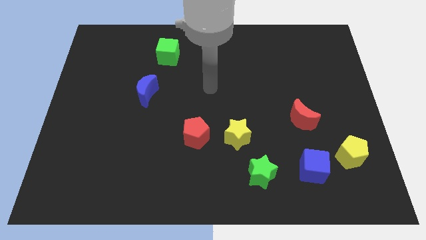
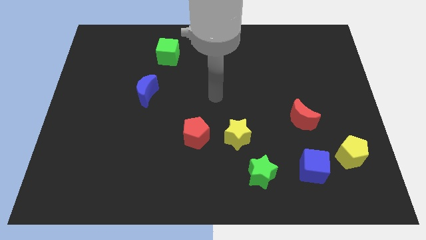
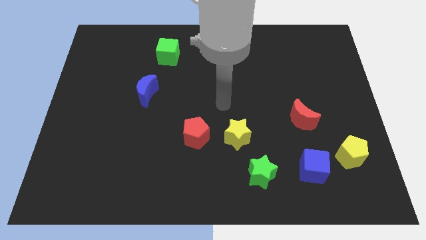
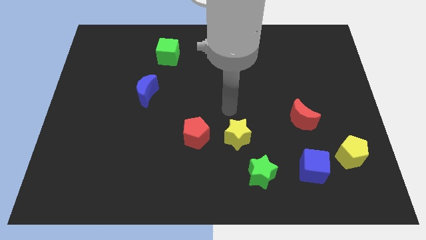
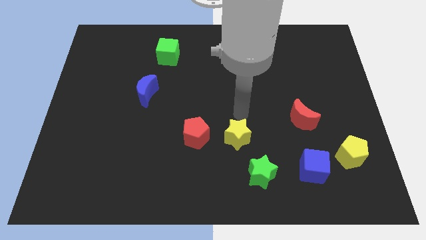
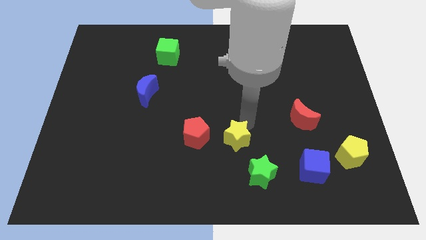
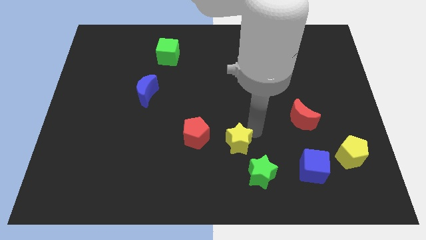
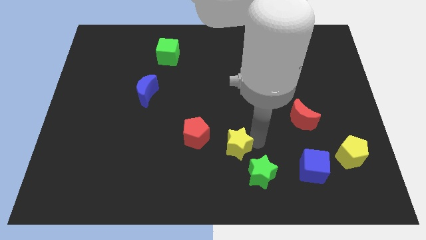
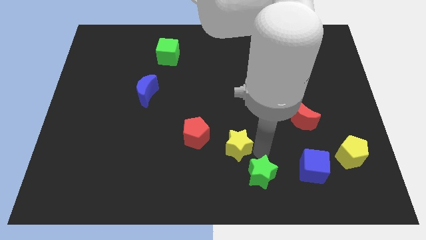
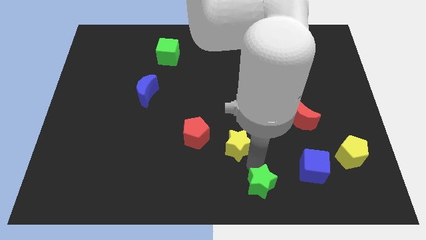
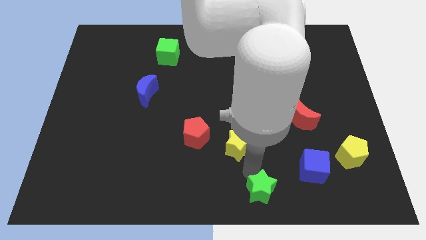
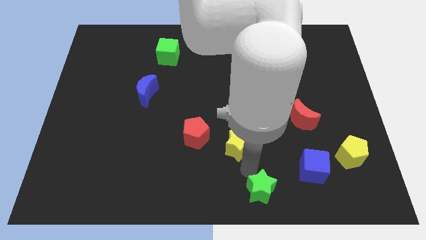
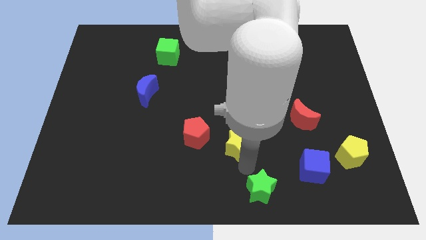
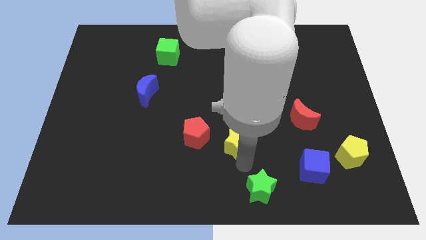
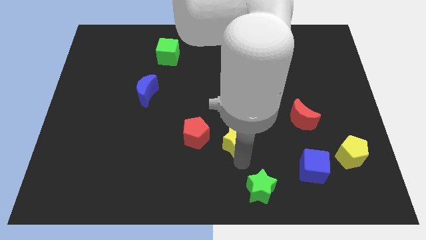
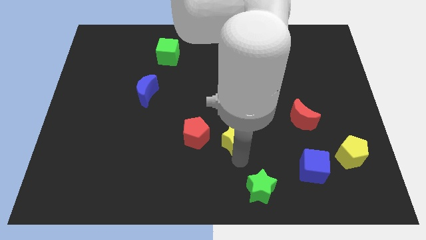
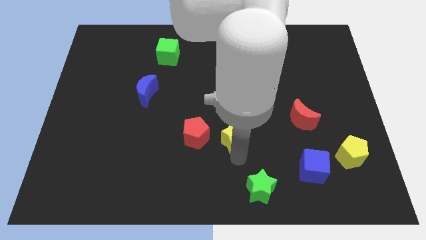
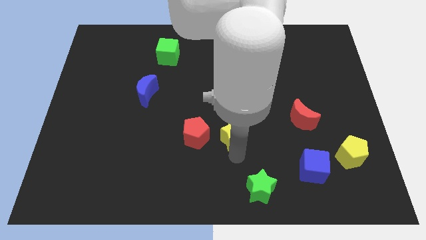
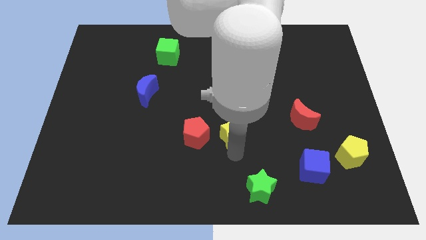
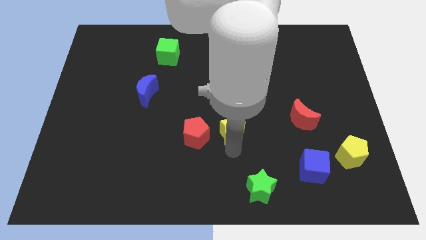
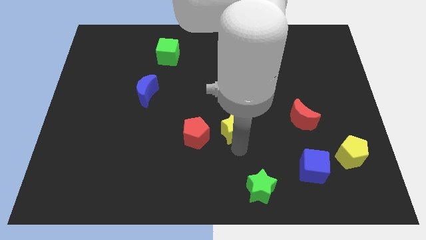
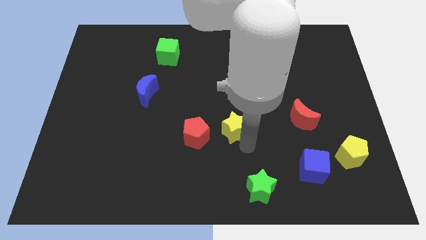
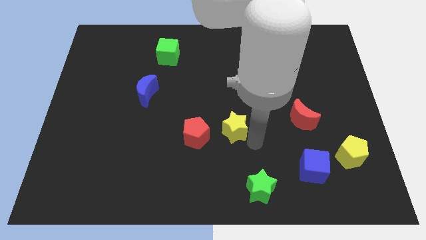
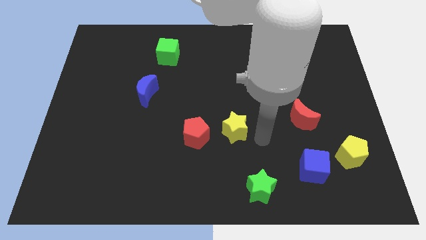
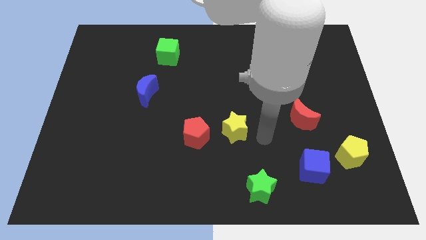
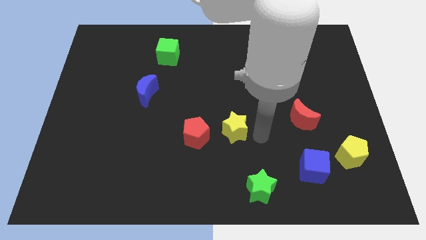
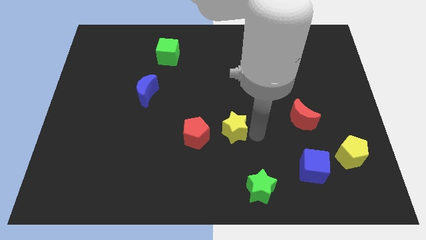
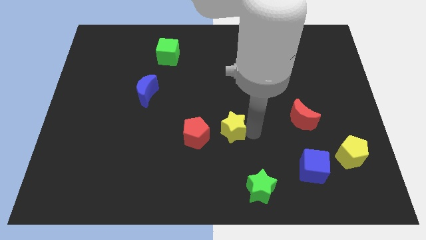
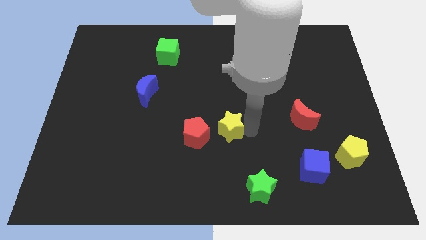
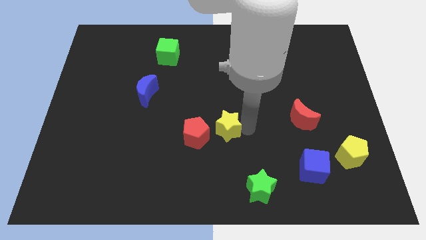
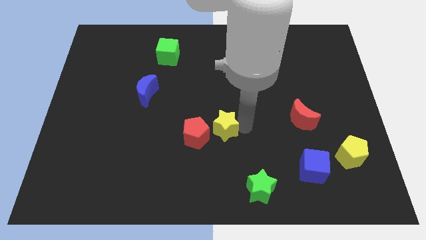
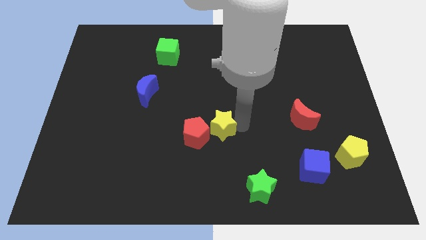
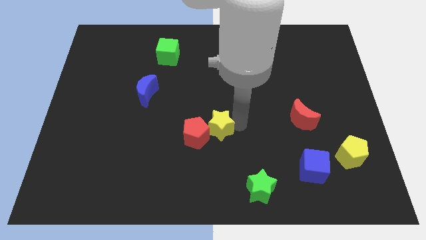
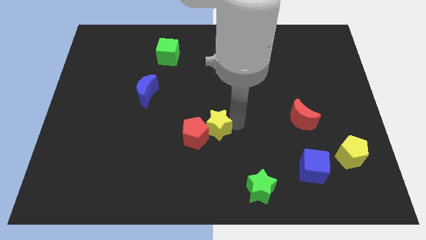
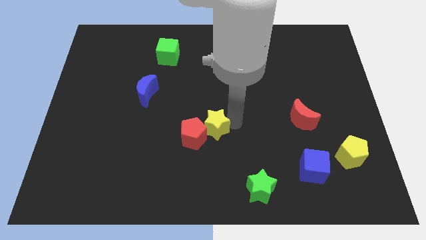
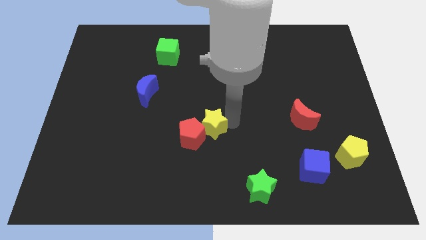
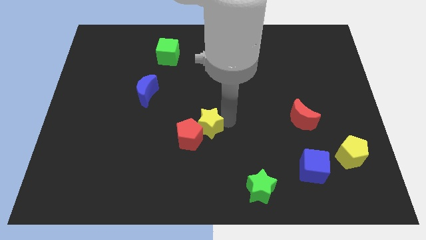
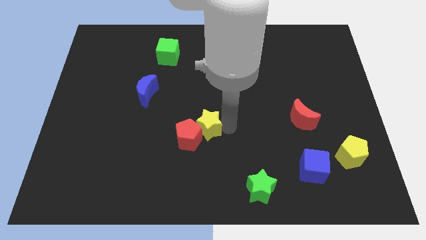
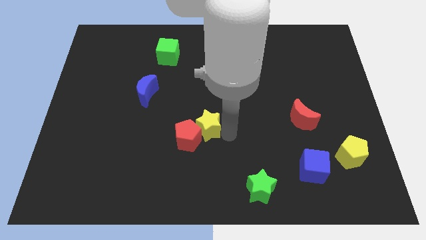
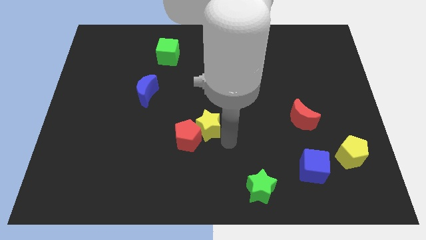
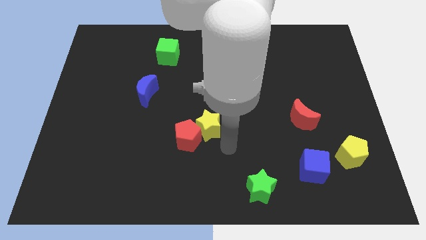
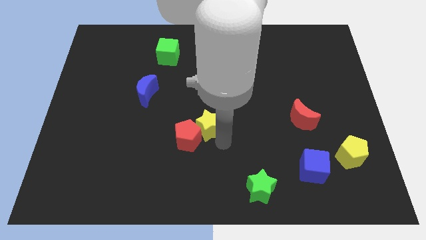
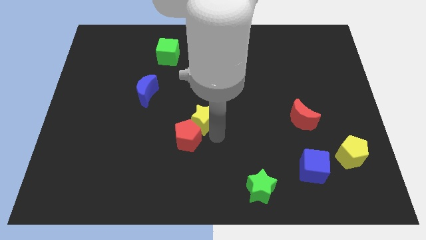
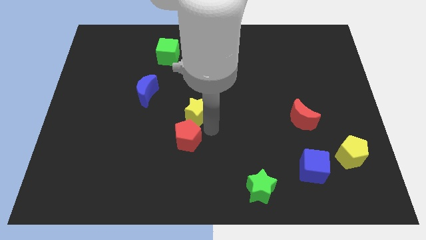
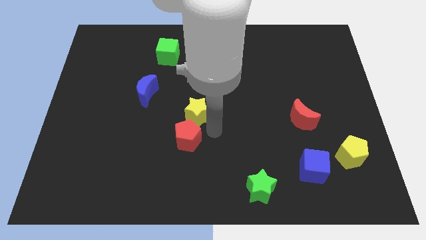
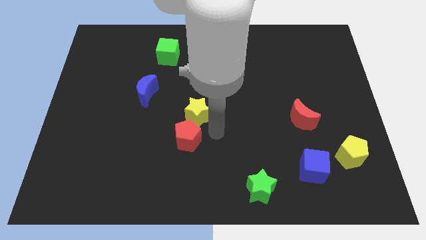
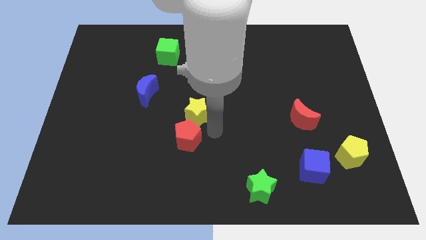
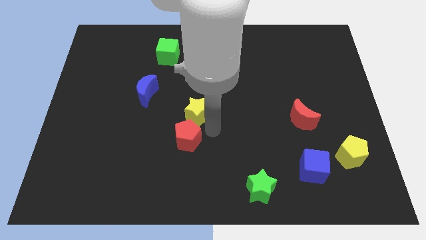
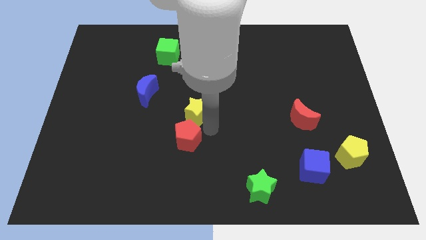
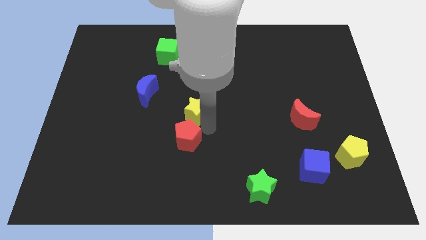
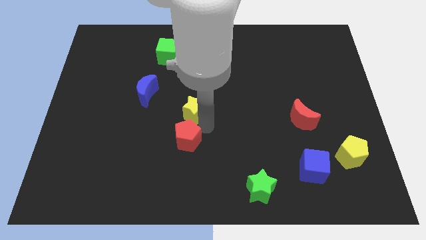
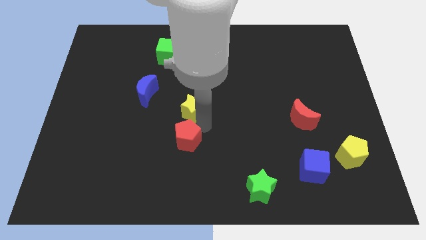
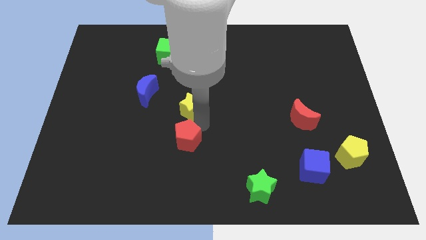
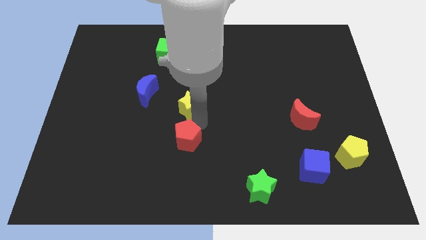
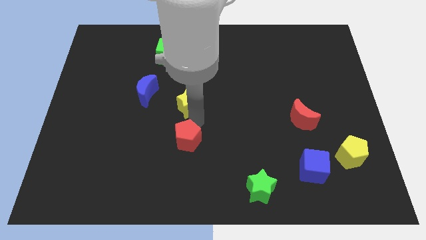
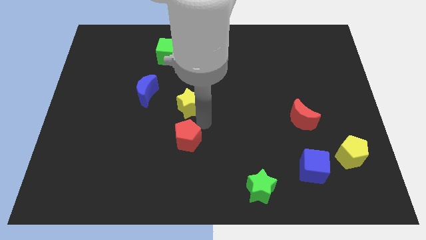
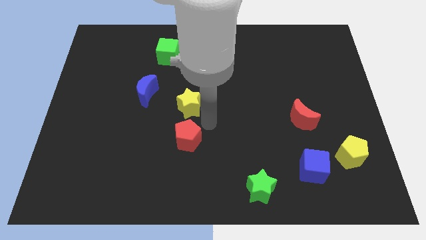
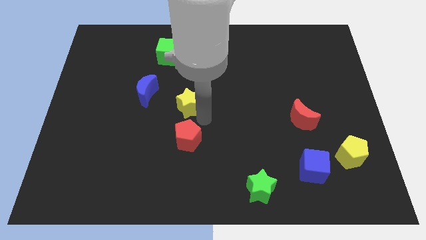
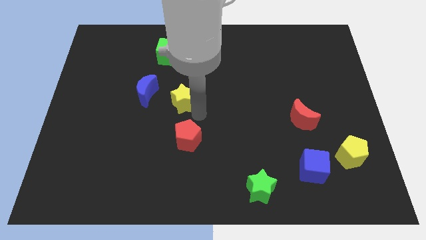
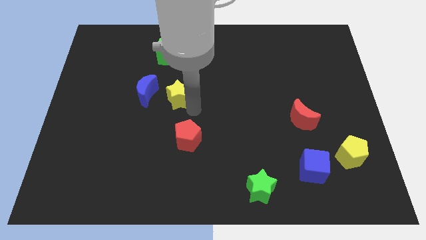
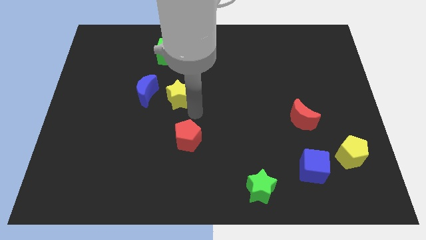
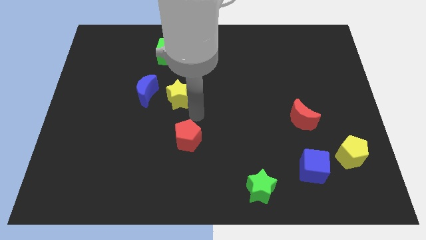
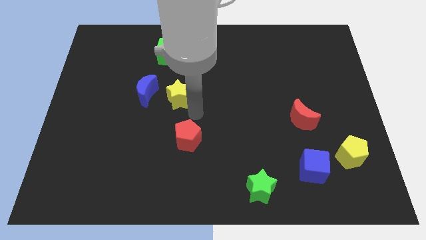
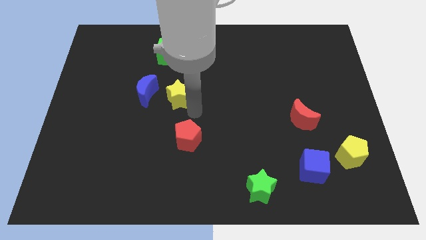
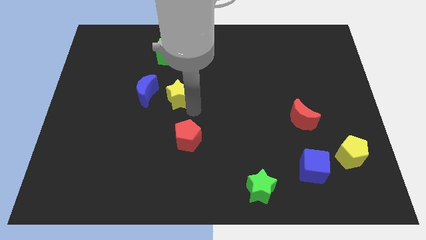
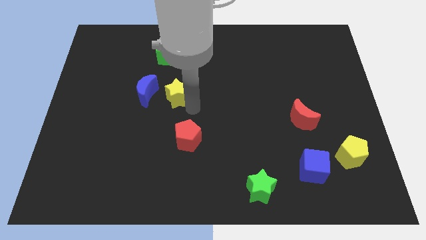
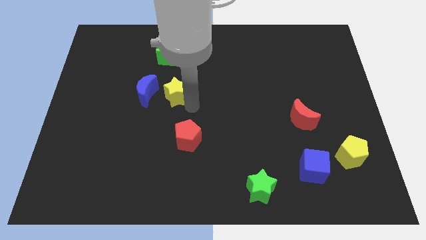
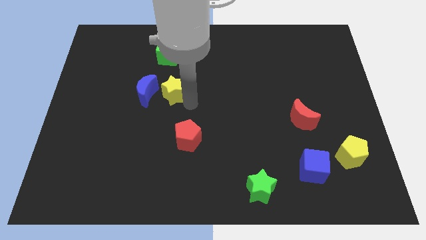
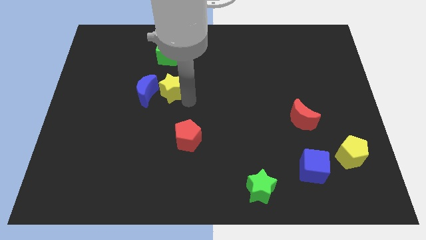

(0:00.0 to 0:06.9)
move the yellow star diagonally upwards and left

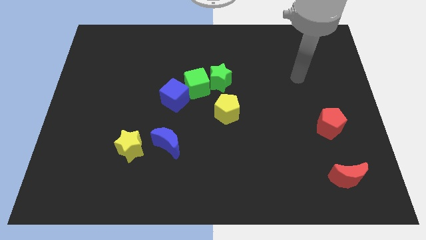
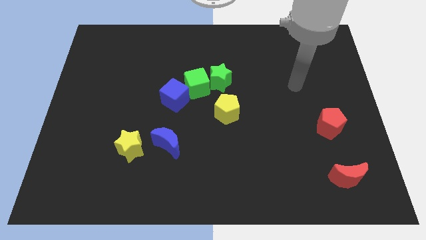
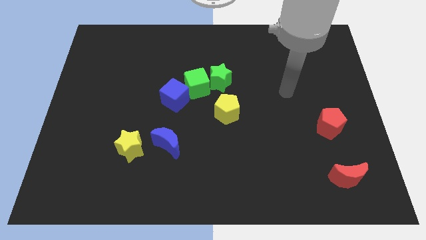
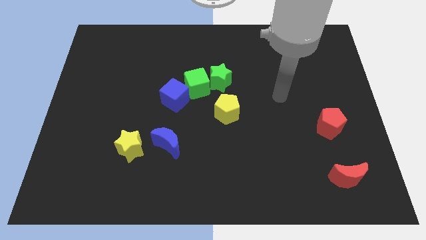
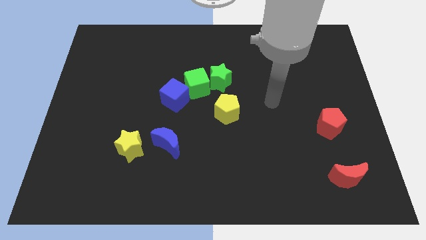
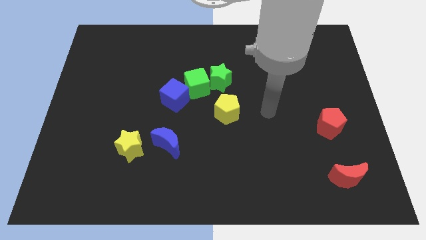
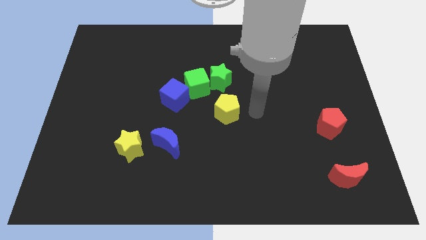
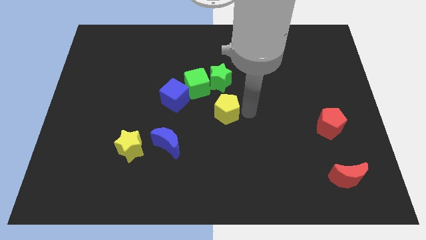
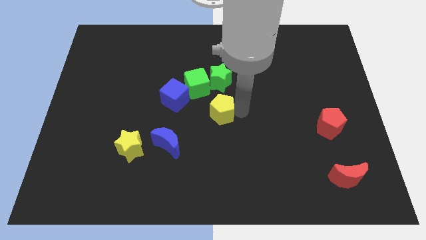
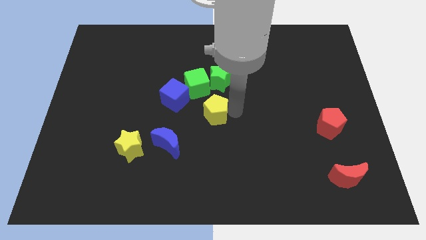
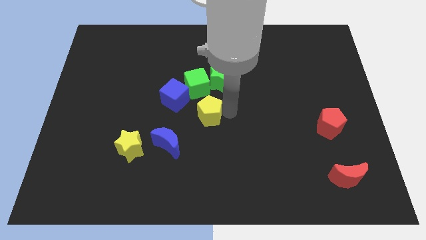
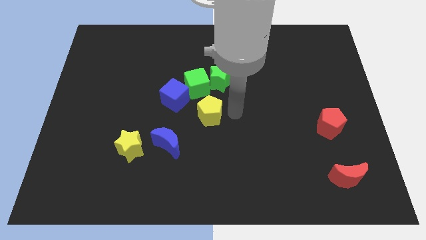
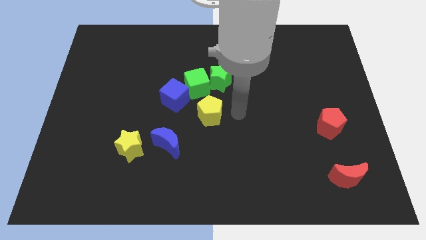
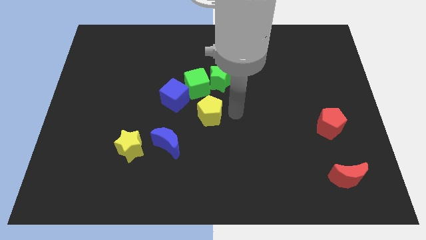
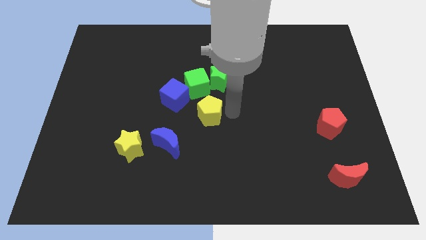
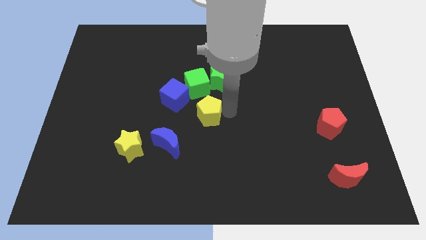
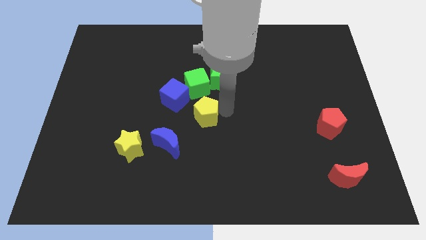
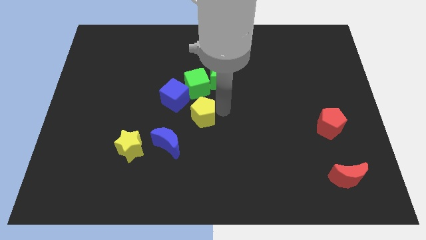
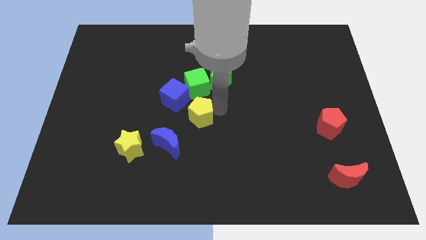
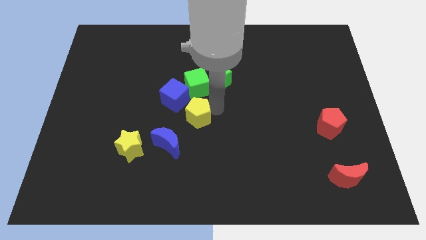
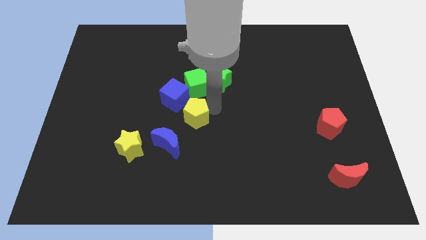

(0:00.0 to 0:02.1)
push the yellow pentagon to the left a little
